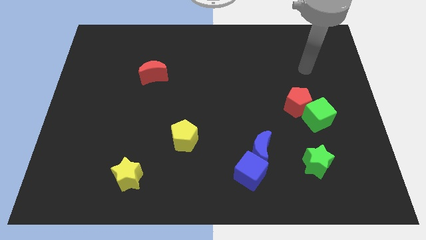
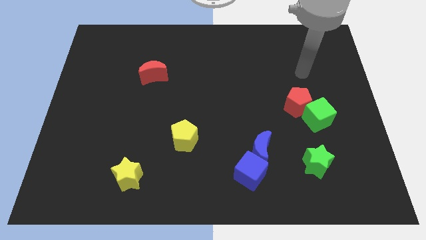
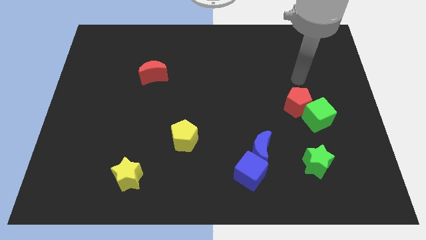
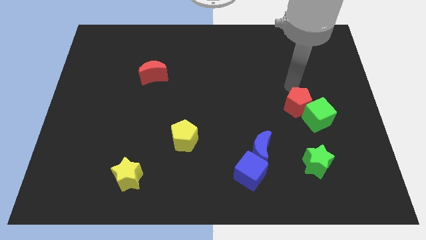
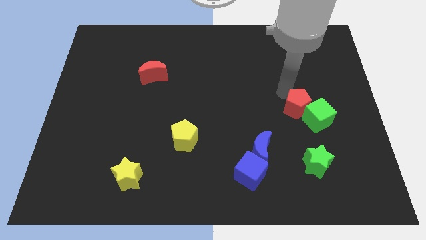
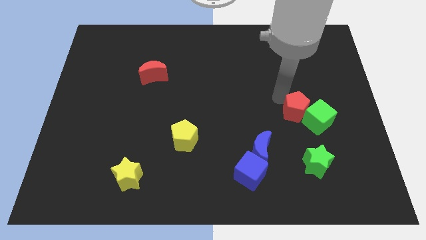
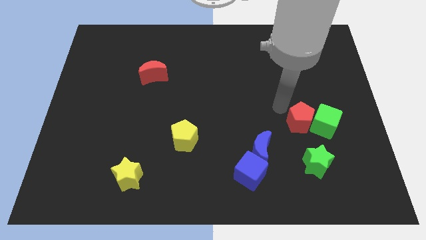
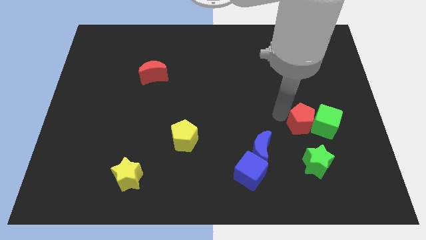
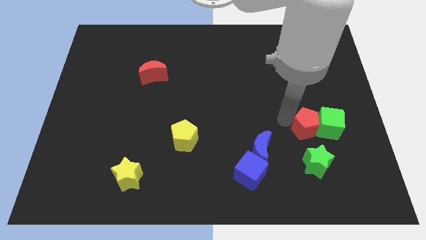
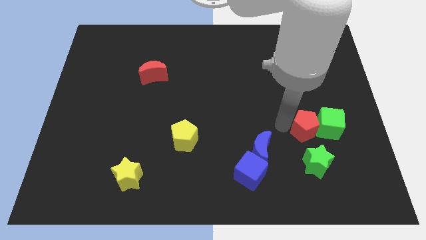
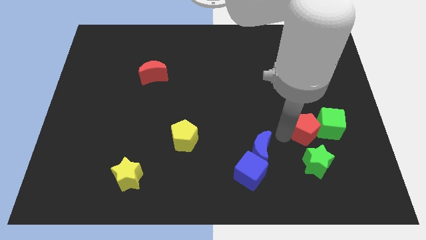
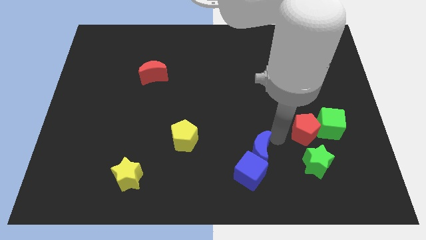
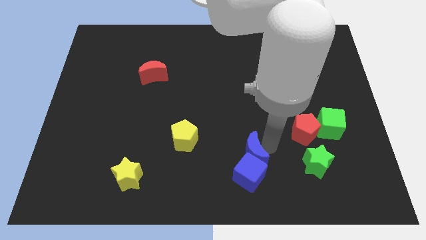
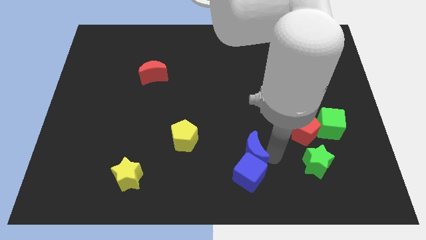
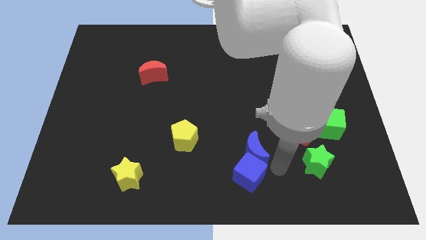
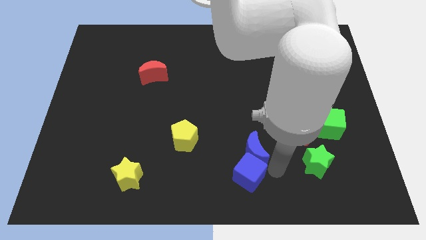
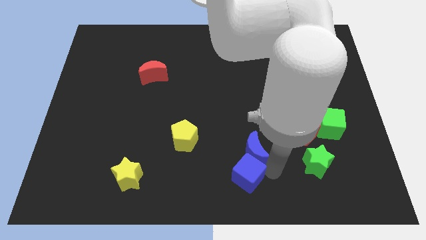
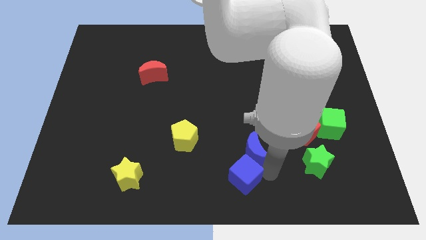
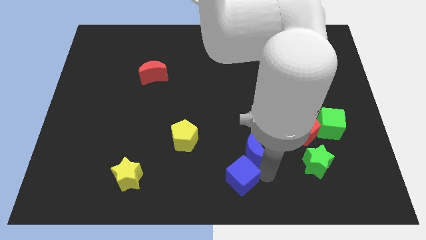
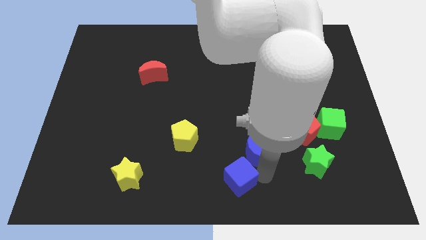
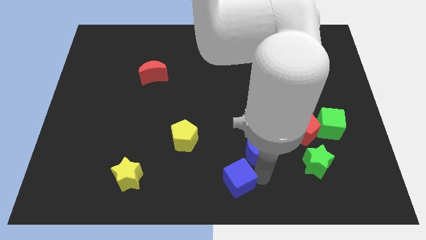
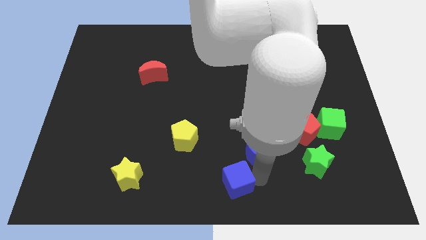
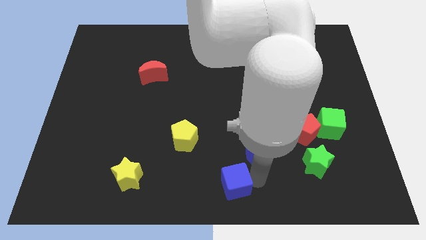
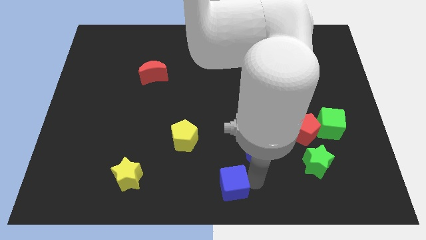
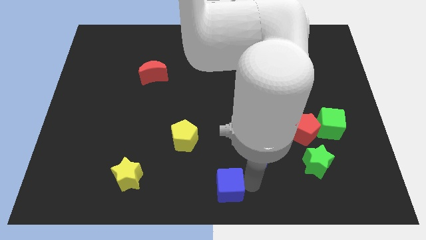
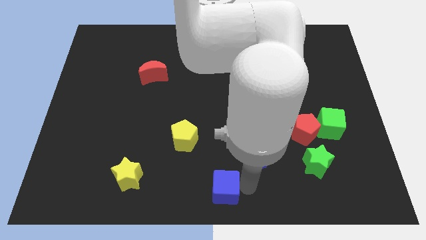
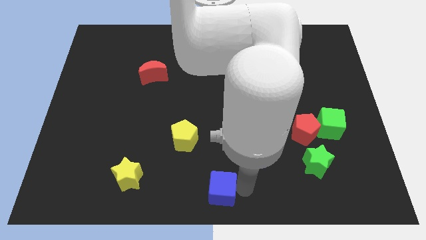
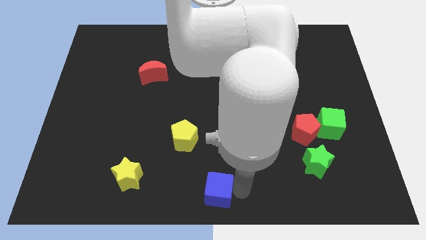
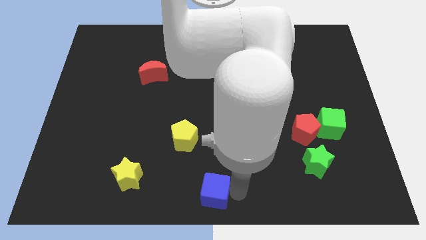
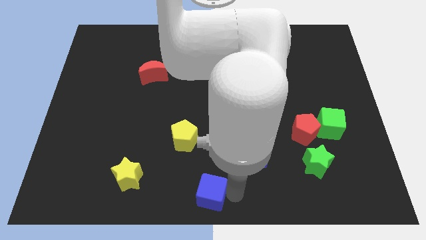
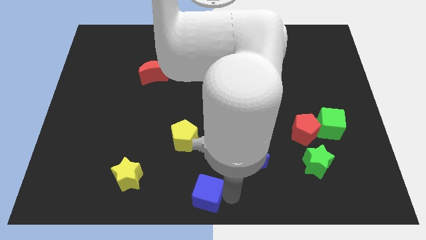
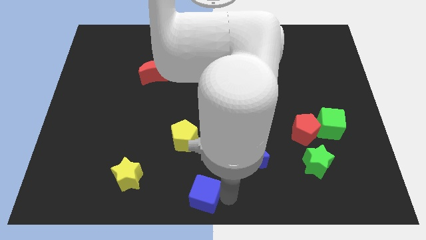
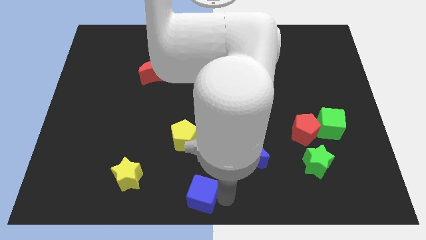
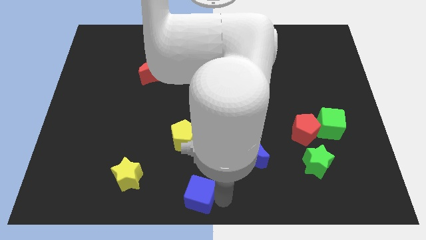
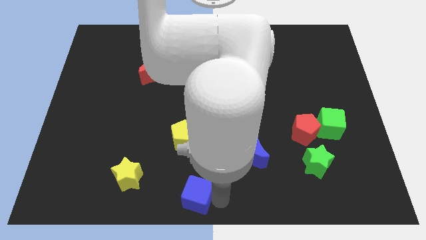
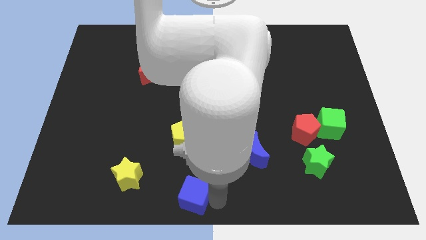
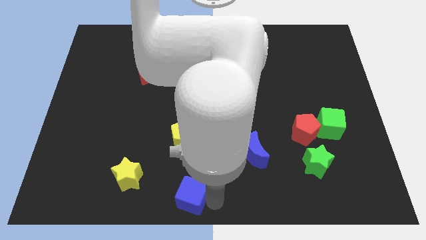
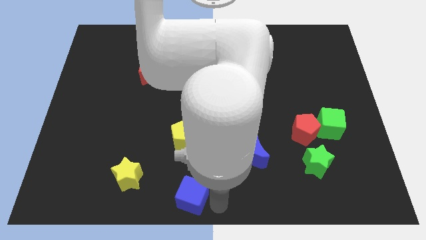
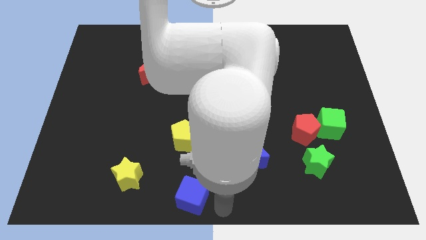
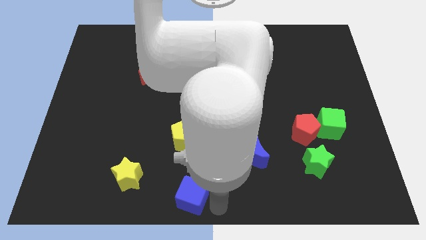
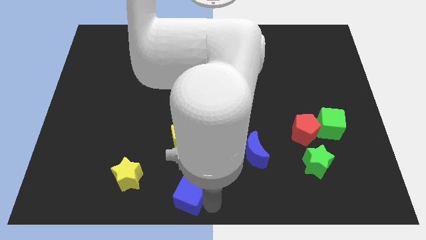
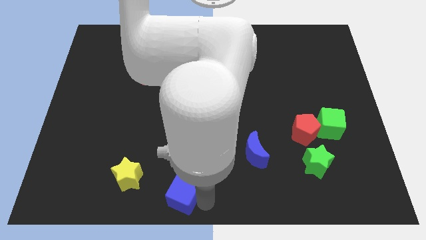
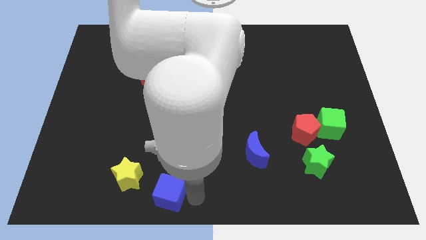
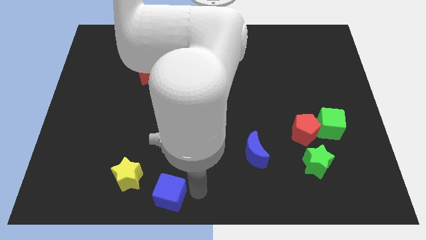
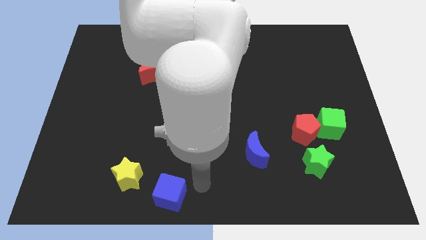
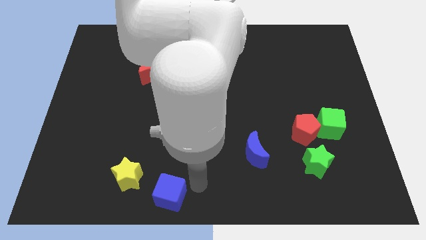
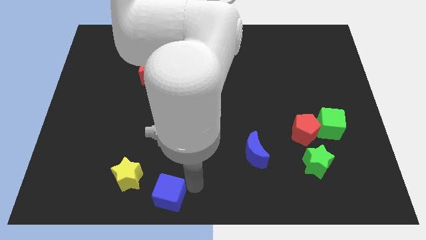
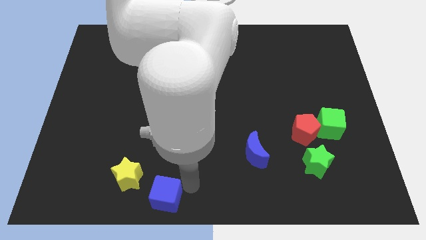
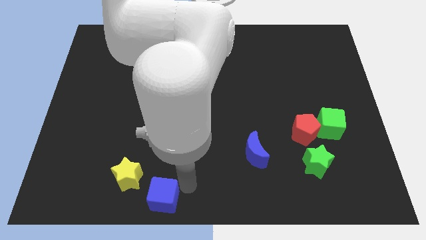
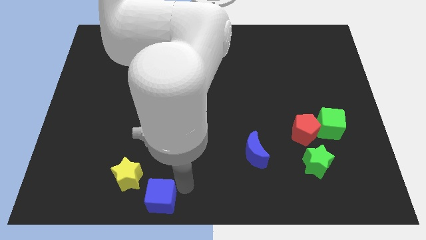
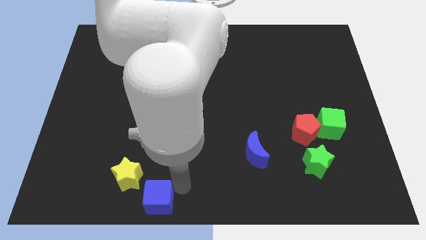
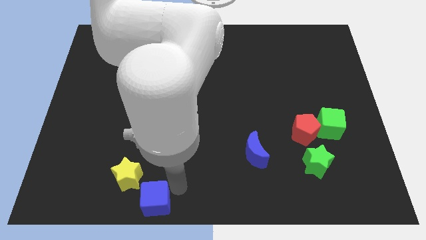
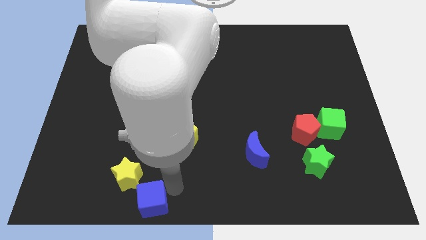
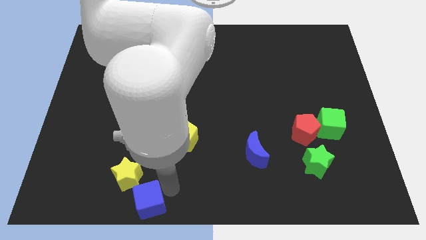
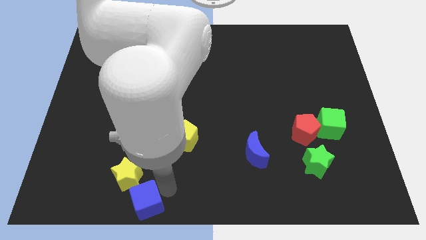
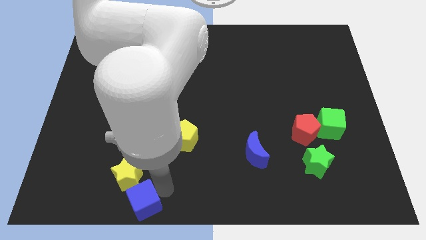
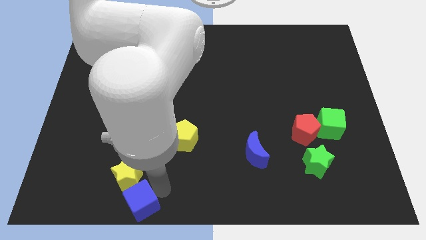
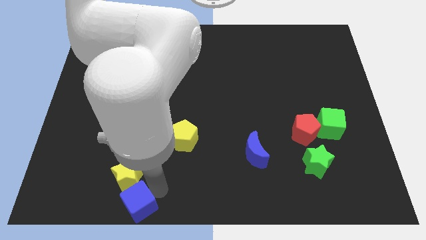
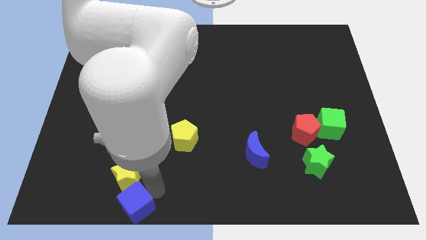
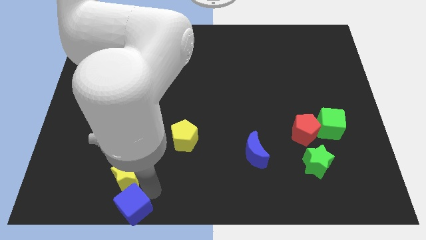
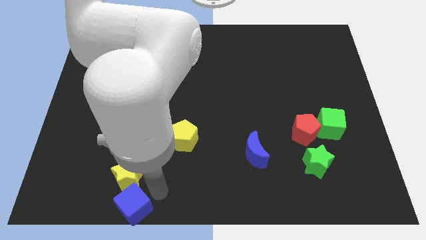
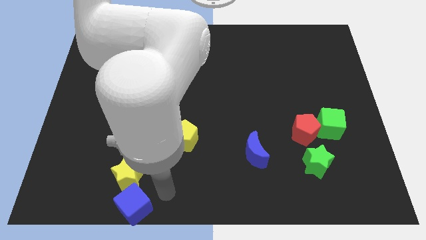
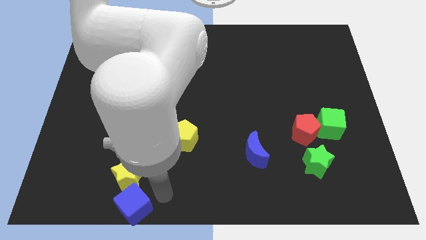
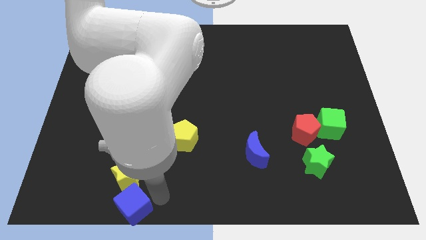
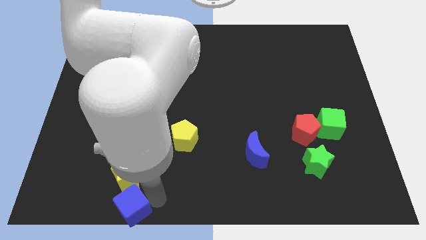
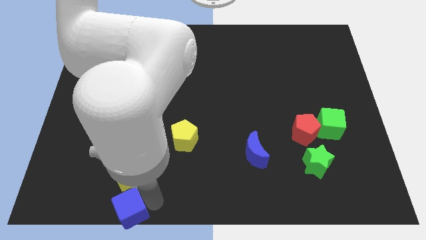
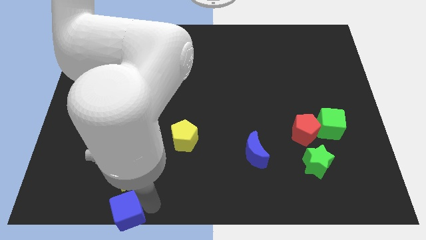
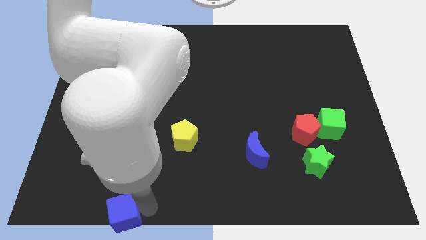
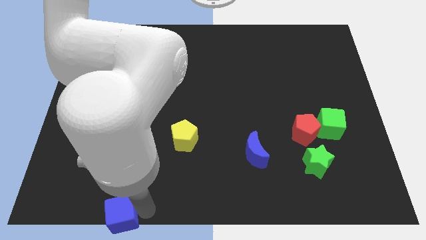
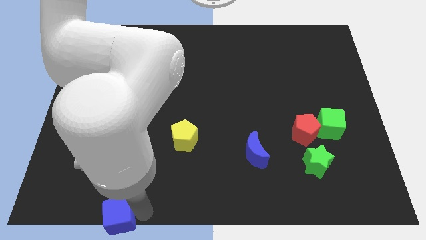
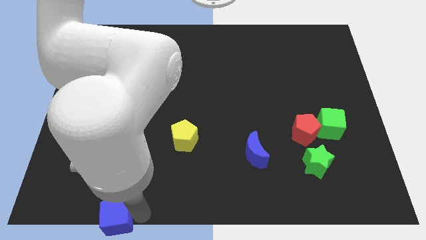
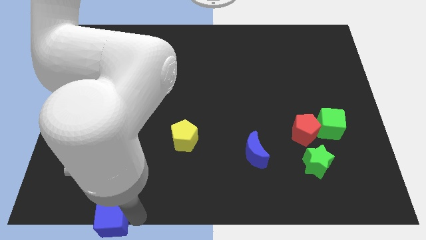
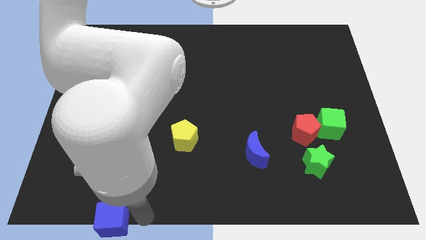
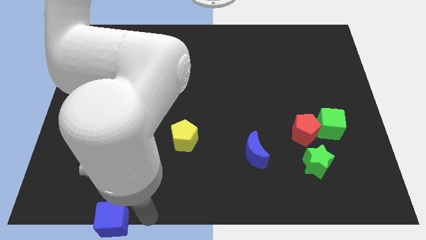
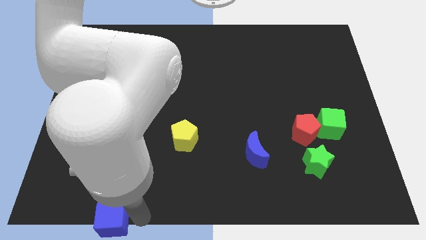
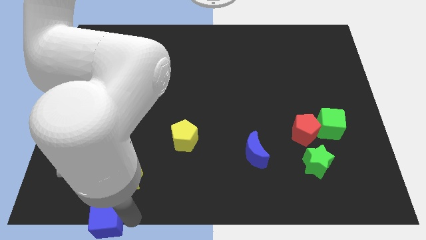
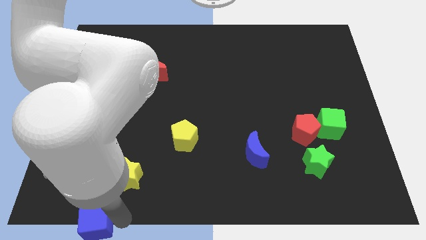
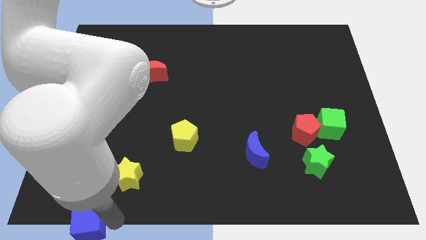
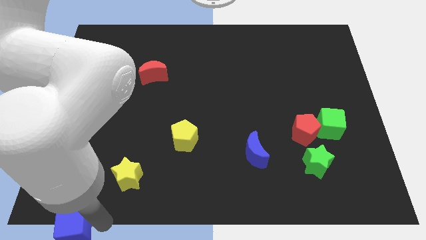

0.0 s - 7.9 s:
push the blue cube to the bottom left corner
